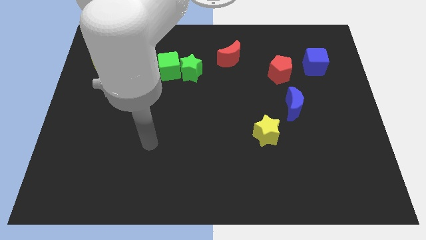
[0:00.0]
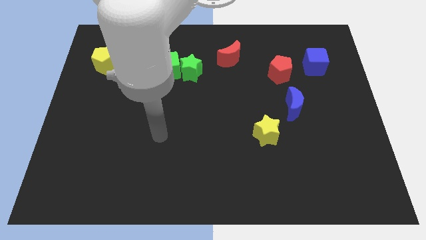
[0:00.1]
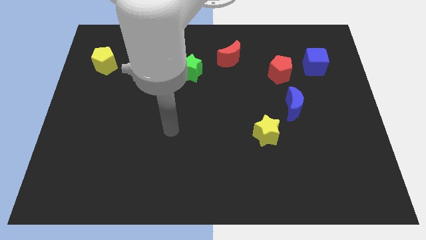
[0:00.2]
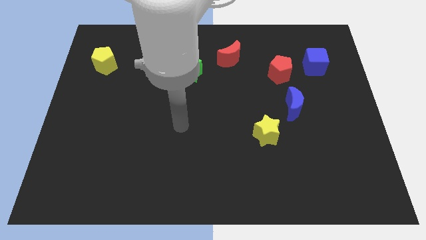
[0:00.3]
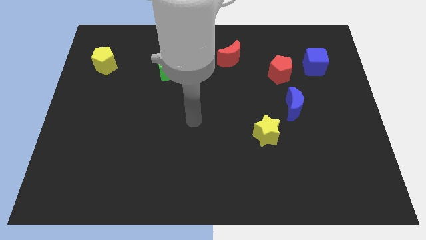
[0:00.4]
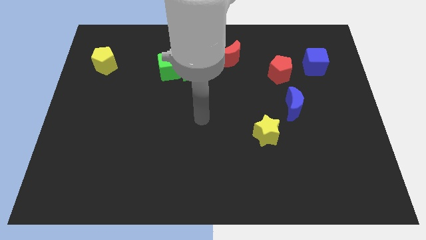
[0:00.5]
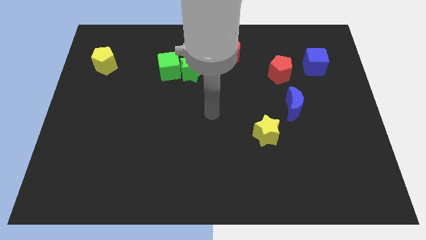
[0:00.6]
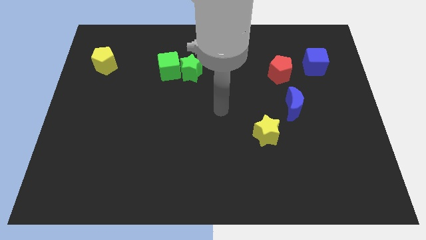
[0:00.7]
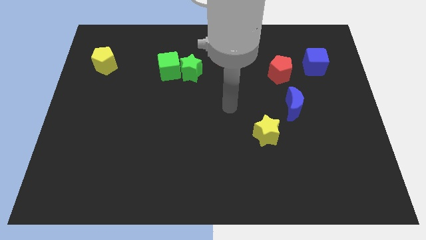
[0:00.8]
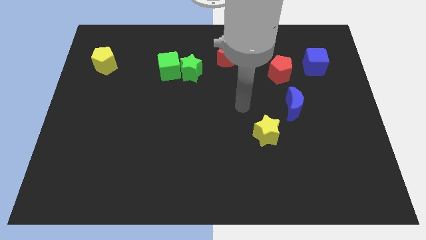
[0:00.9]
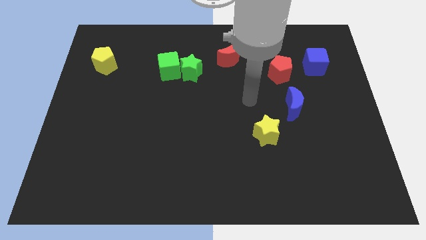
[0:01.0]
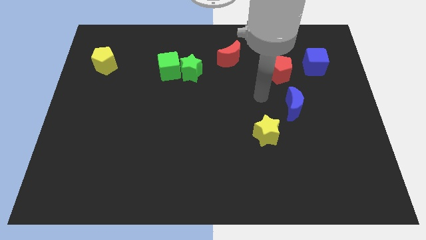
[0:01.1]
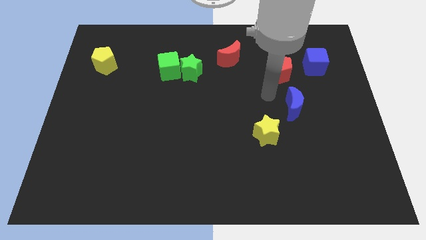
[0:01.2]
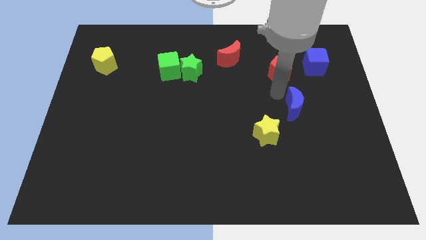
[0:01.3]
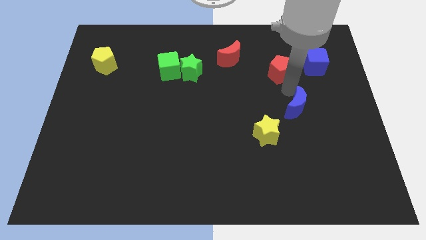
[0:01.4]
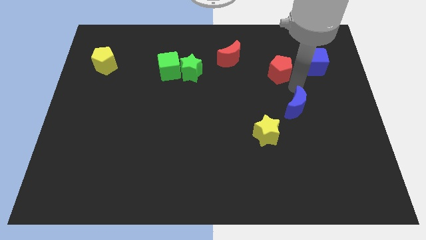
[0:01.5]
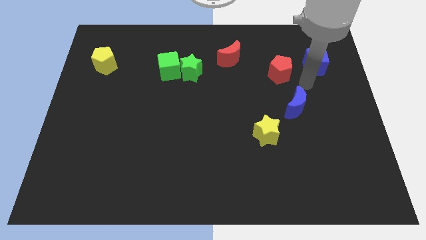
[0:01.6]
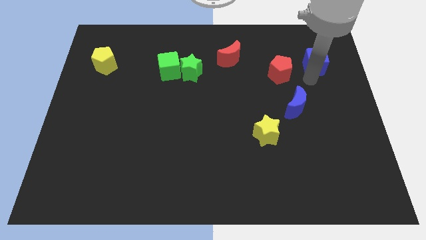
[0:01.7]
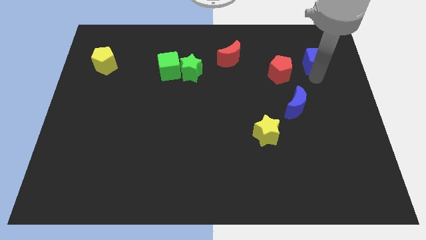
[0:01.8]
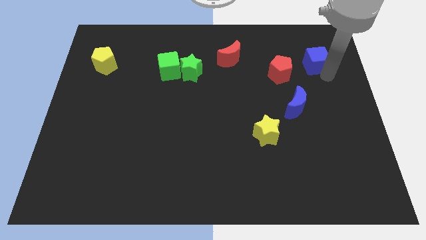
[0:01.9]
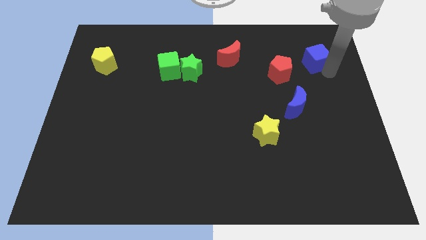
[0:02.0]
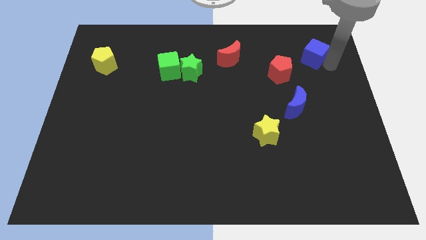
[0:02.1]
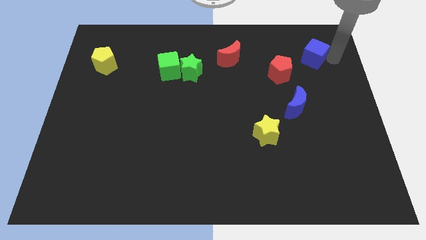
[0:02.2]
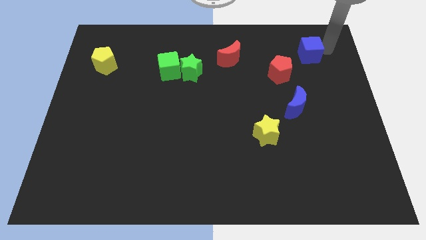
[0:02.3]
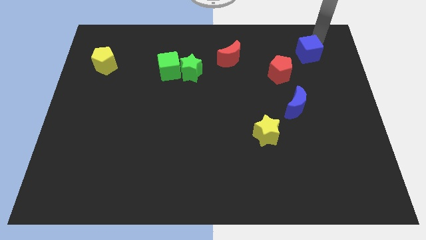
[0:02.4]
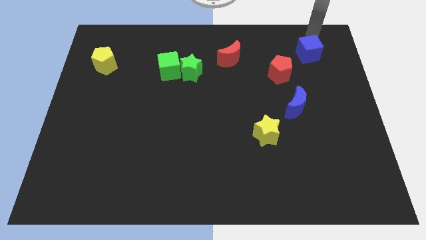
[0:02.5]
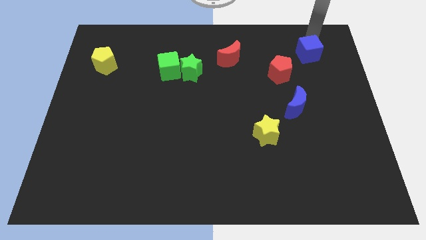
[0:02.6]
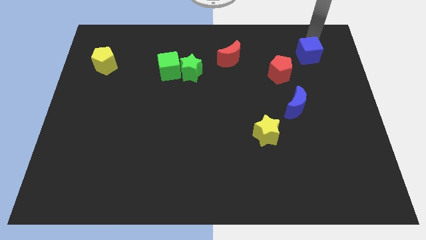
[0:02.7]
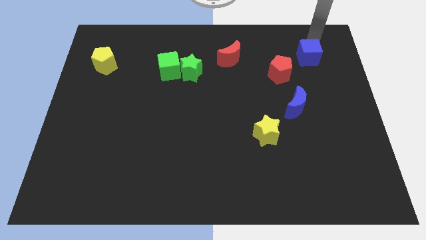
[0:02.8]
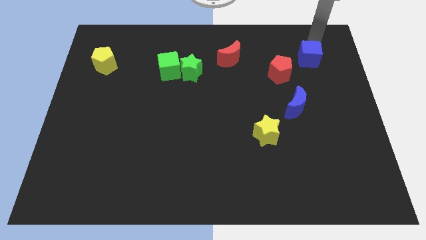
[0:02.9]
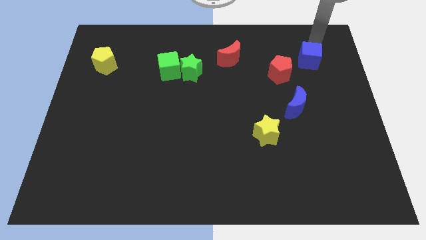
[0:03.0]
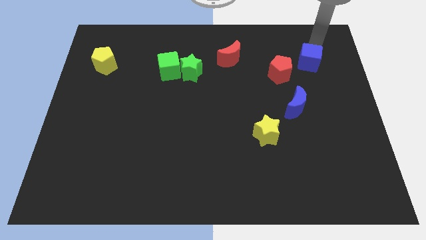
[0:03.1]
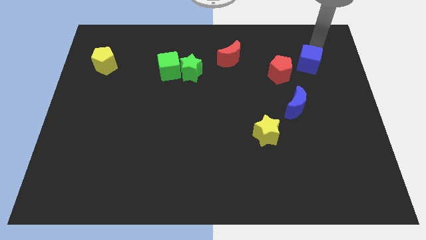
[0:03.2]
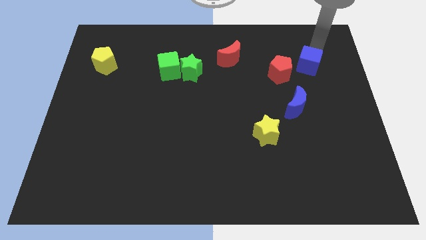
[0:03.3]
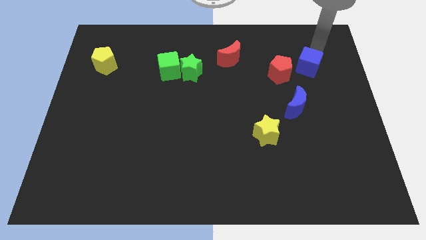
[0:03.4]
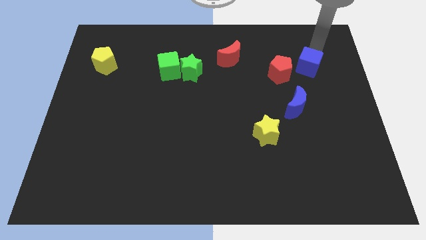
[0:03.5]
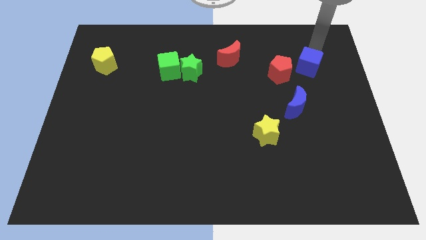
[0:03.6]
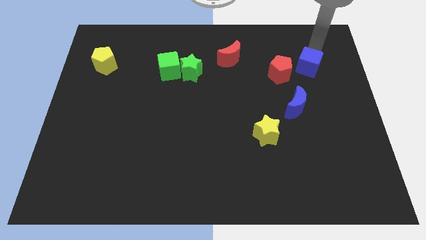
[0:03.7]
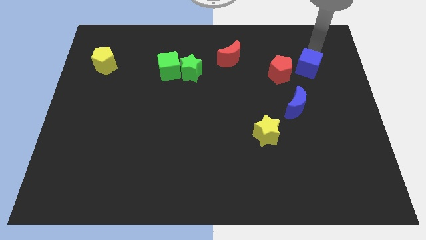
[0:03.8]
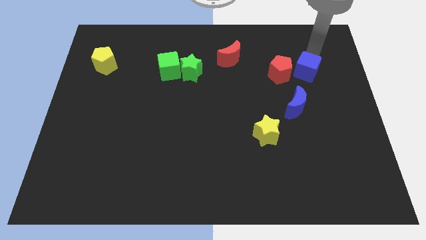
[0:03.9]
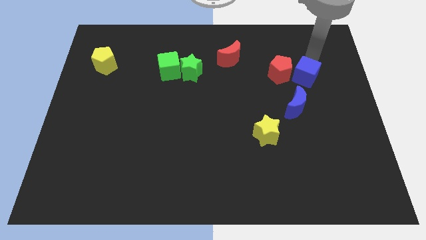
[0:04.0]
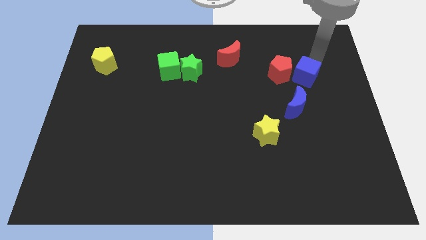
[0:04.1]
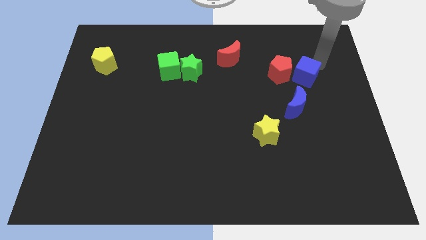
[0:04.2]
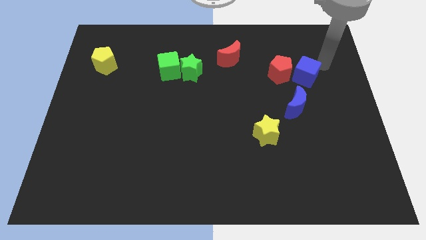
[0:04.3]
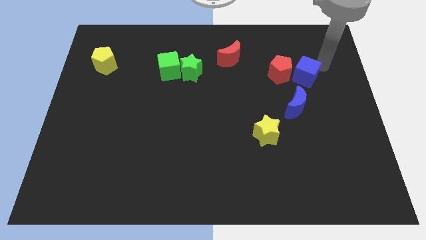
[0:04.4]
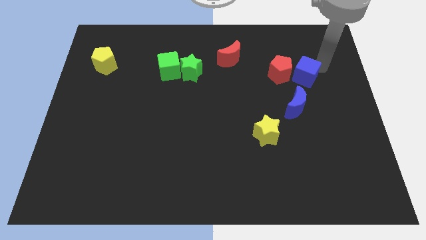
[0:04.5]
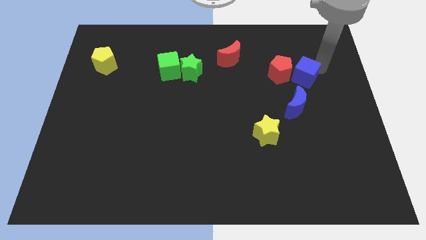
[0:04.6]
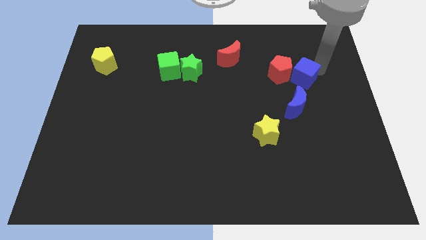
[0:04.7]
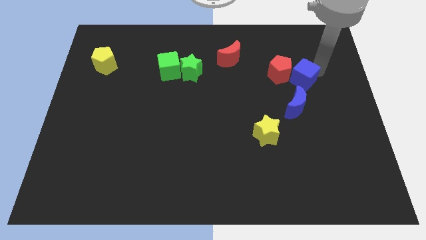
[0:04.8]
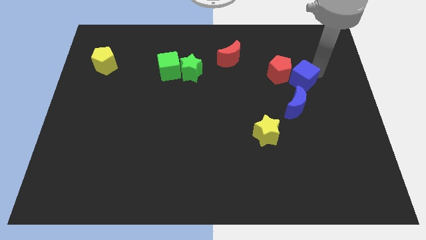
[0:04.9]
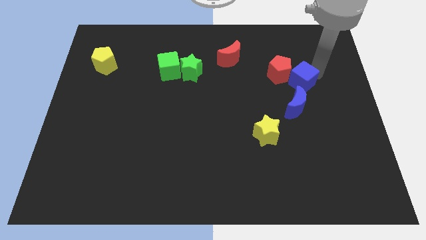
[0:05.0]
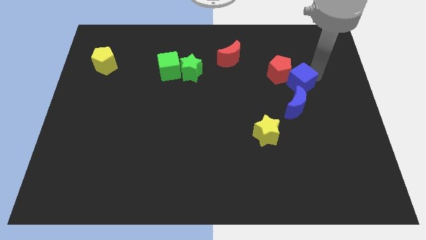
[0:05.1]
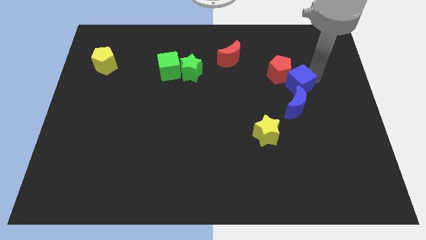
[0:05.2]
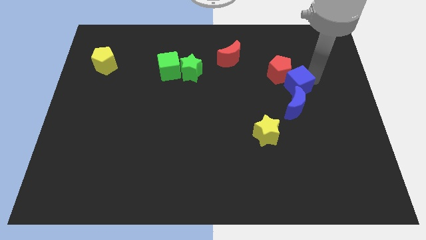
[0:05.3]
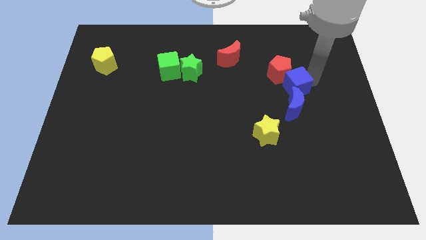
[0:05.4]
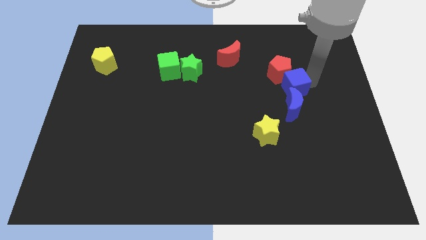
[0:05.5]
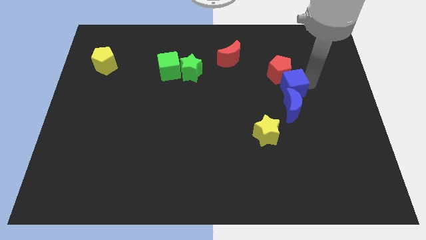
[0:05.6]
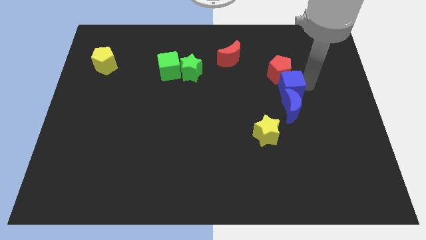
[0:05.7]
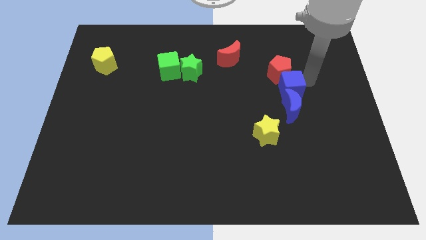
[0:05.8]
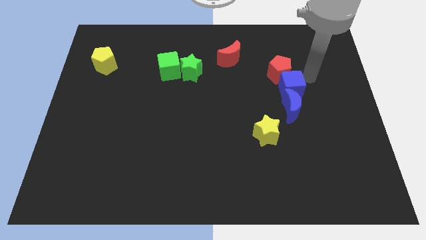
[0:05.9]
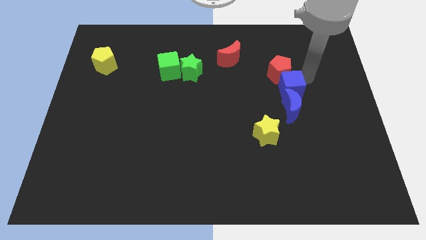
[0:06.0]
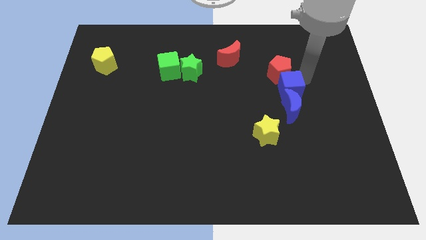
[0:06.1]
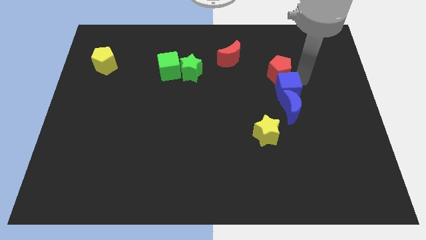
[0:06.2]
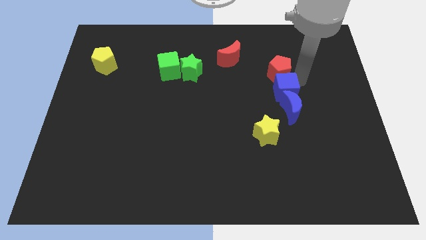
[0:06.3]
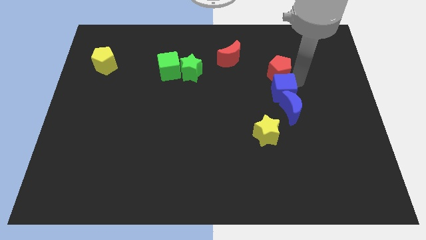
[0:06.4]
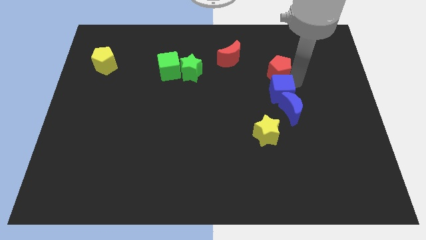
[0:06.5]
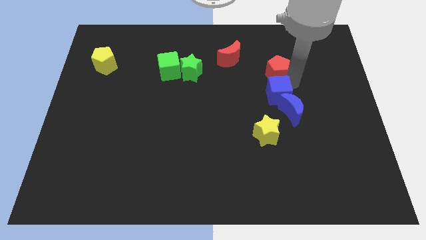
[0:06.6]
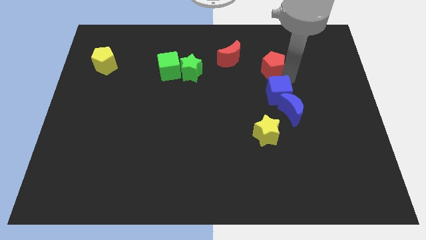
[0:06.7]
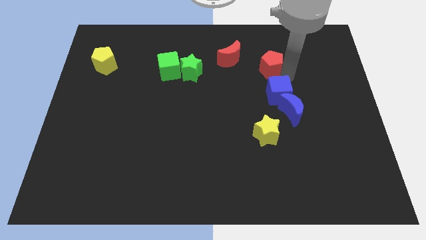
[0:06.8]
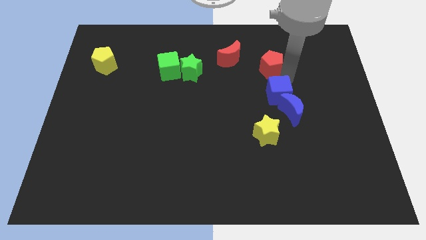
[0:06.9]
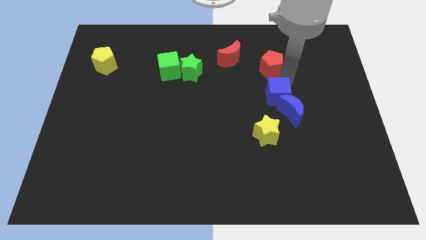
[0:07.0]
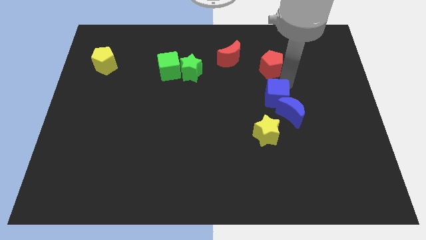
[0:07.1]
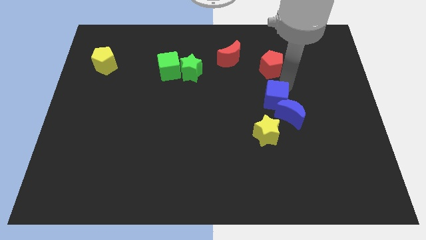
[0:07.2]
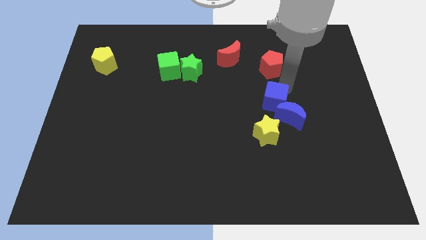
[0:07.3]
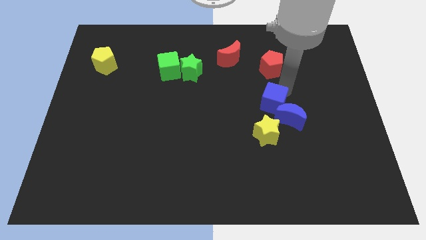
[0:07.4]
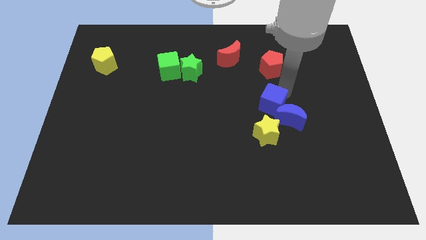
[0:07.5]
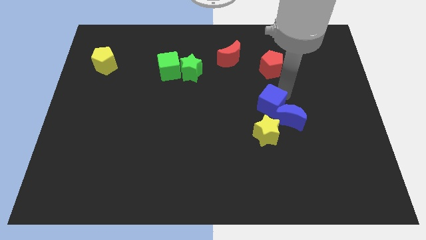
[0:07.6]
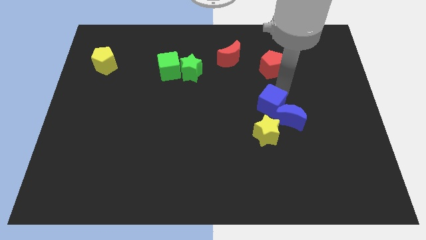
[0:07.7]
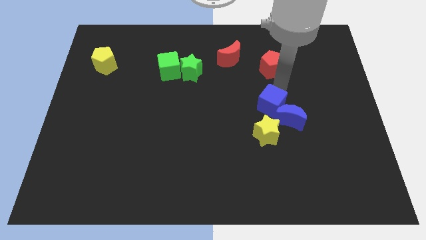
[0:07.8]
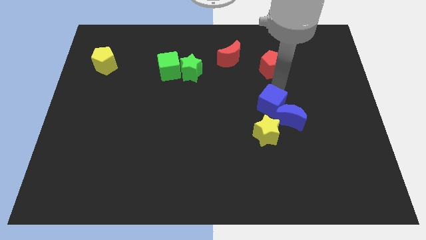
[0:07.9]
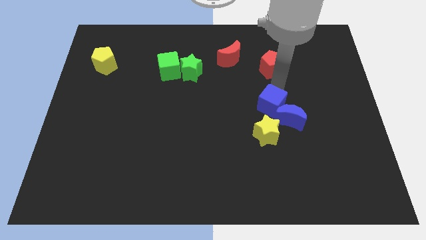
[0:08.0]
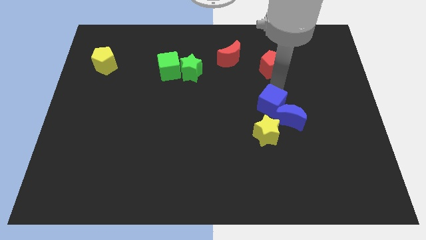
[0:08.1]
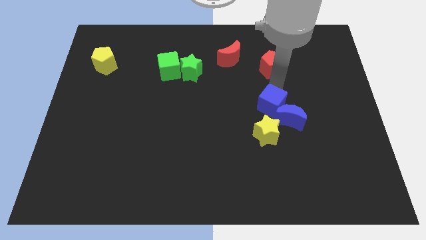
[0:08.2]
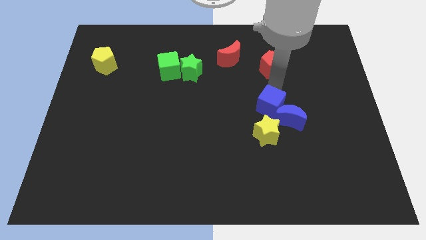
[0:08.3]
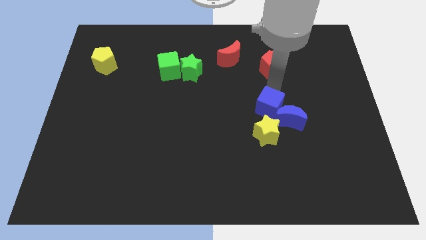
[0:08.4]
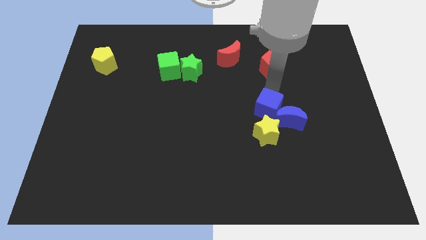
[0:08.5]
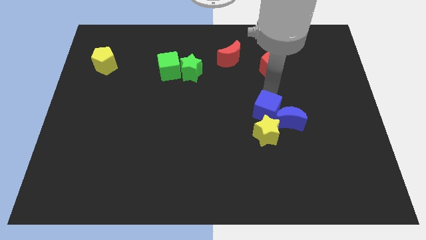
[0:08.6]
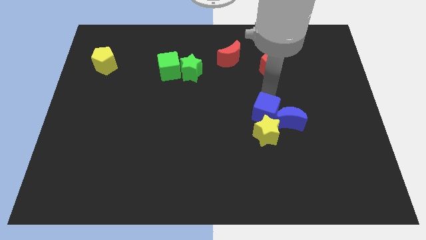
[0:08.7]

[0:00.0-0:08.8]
move the blue cube towards the yellow star
